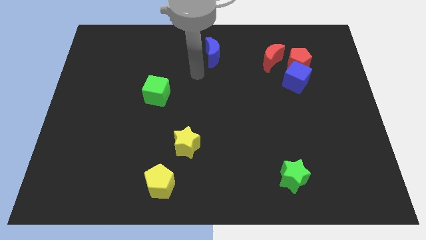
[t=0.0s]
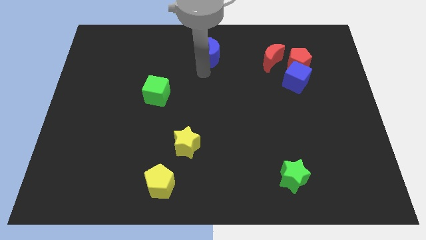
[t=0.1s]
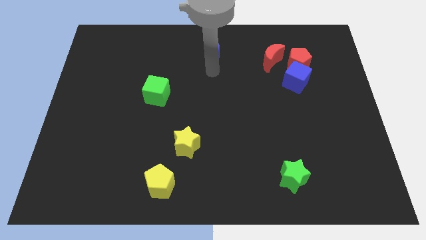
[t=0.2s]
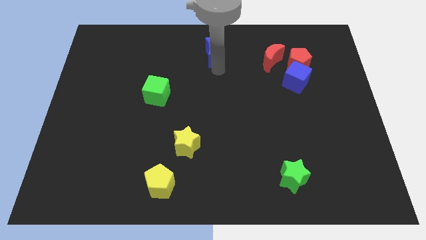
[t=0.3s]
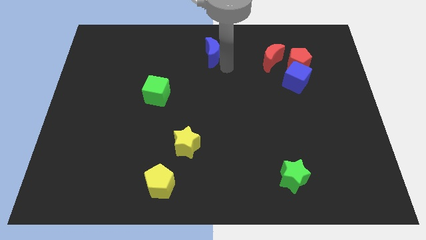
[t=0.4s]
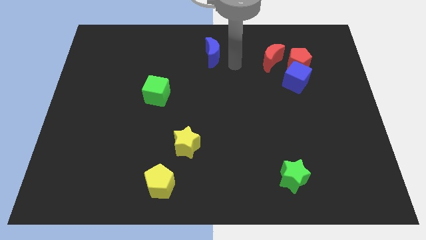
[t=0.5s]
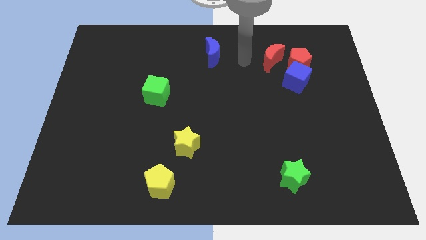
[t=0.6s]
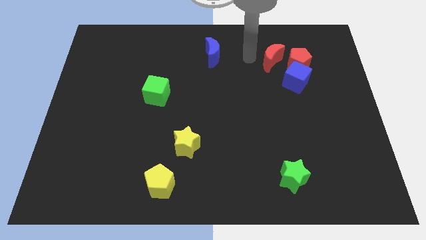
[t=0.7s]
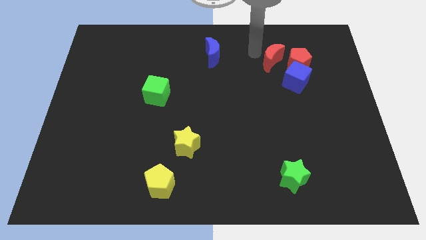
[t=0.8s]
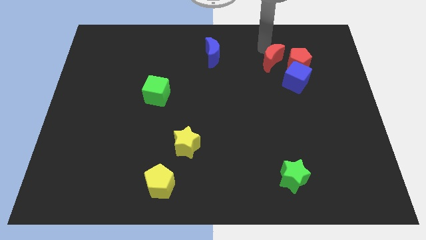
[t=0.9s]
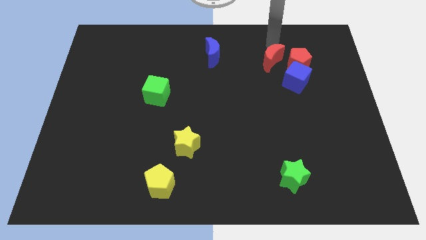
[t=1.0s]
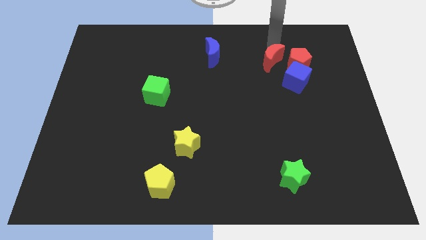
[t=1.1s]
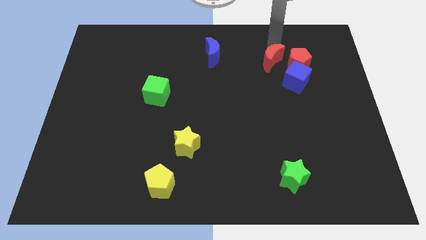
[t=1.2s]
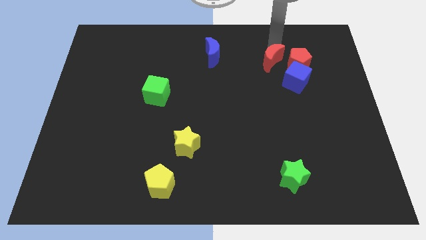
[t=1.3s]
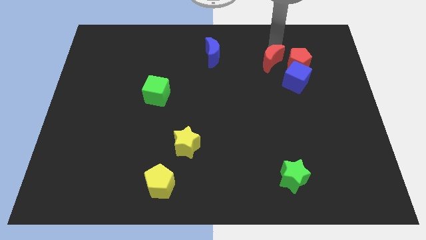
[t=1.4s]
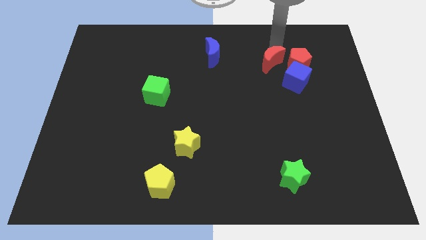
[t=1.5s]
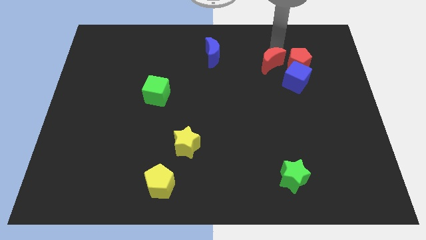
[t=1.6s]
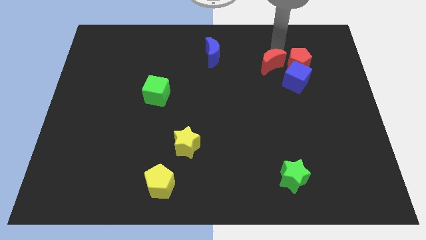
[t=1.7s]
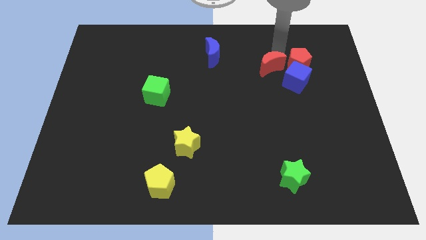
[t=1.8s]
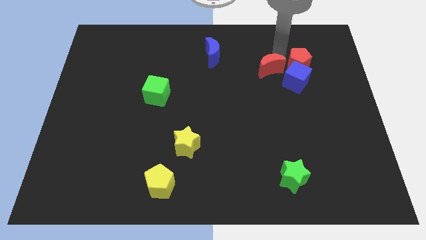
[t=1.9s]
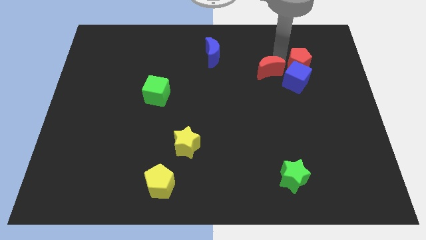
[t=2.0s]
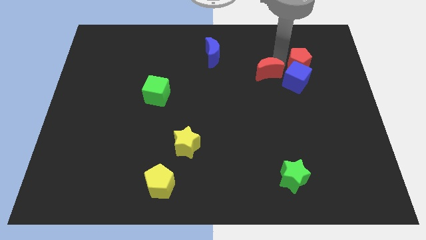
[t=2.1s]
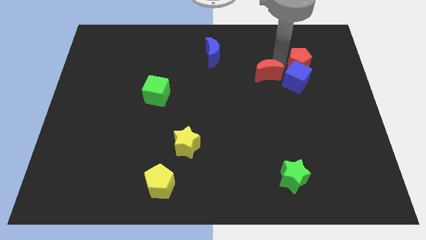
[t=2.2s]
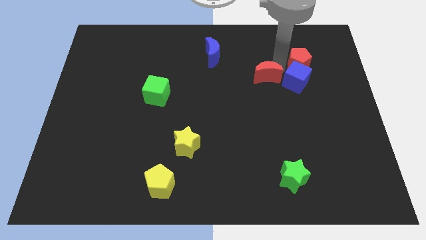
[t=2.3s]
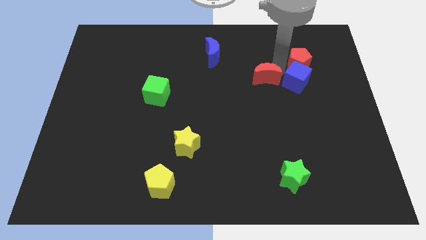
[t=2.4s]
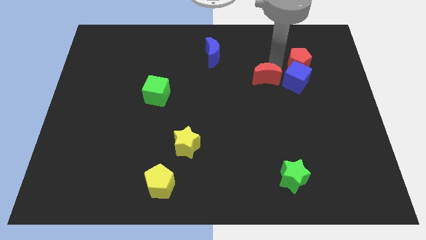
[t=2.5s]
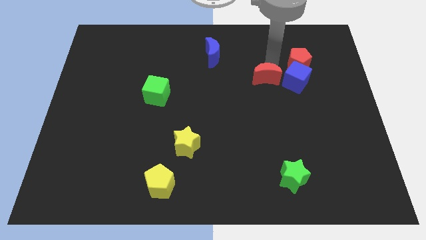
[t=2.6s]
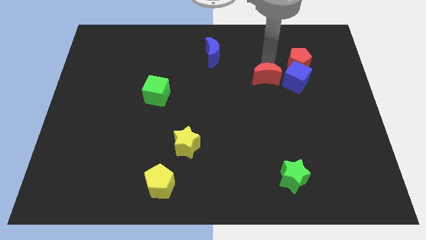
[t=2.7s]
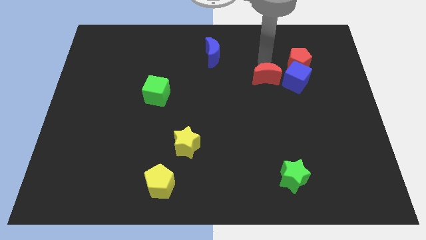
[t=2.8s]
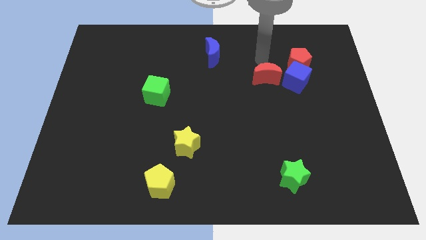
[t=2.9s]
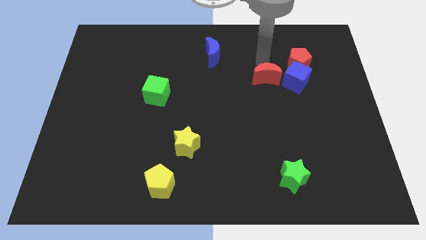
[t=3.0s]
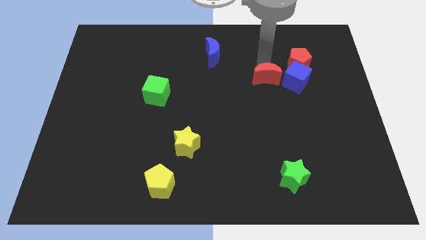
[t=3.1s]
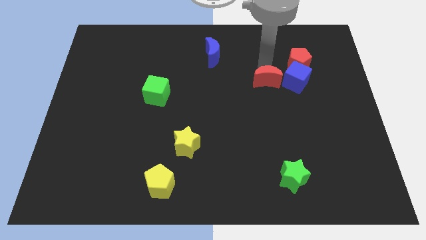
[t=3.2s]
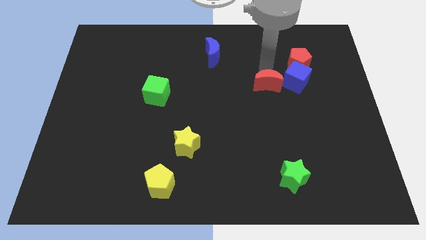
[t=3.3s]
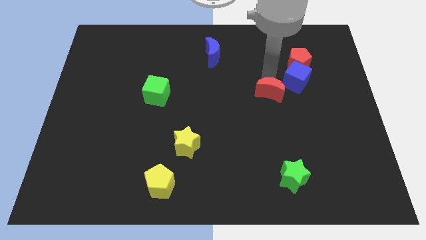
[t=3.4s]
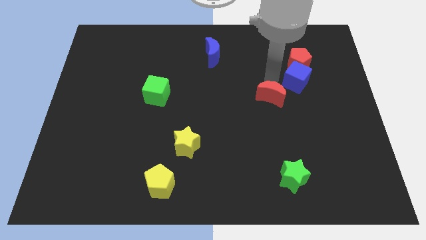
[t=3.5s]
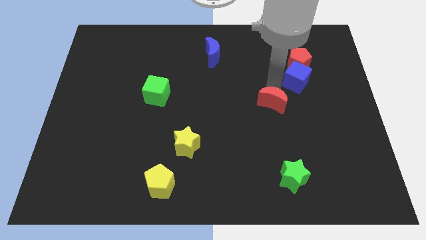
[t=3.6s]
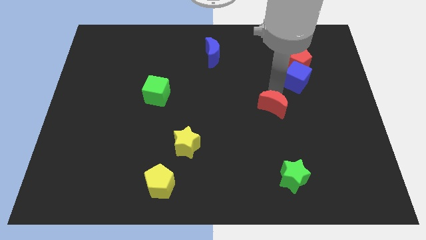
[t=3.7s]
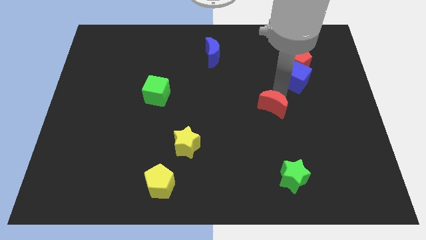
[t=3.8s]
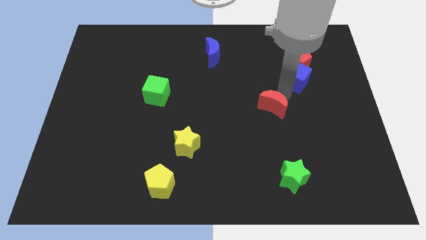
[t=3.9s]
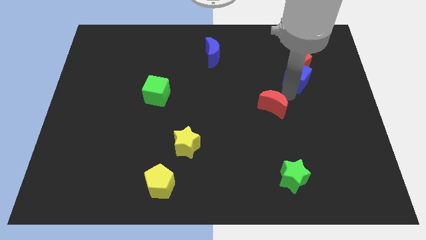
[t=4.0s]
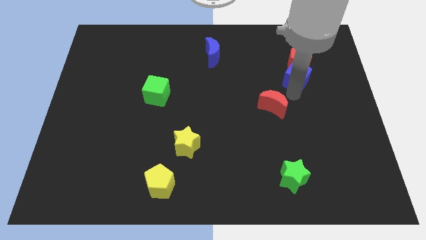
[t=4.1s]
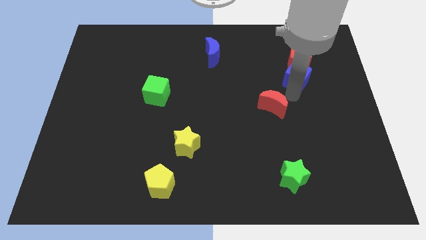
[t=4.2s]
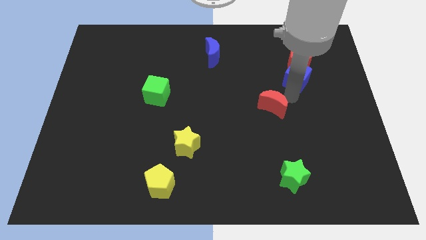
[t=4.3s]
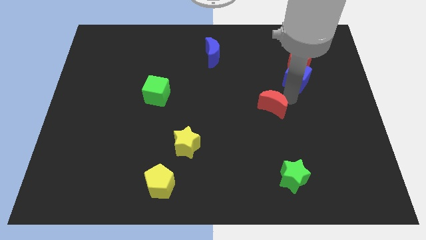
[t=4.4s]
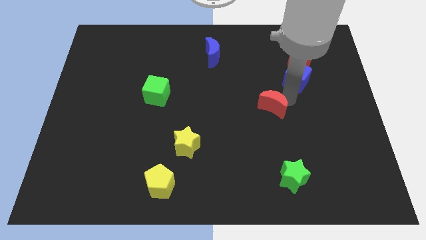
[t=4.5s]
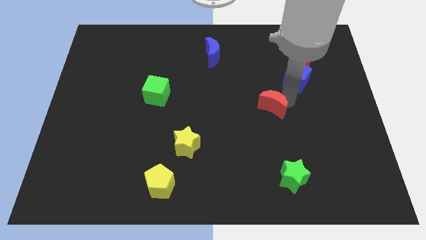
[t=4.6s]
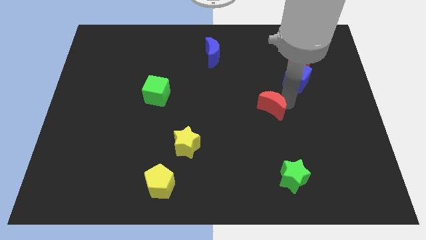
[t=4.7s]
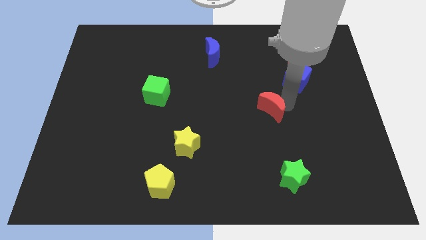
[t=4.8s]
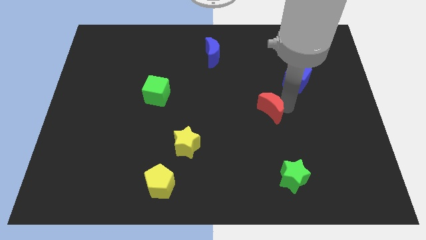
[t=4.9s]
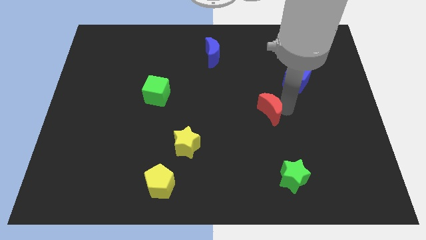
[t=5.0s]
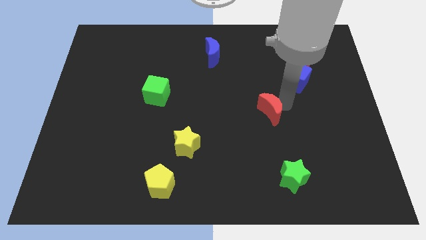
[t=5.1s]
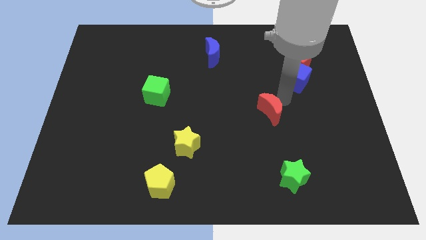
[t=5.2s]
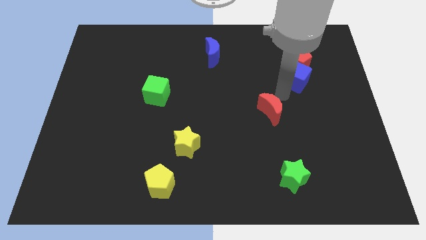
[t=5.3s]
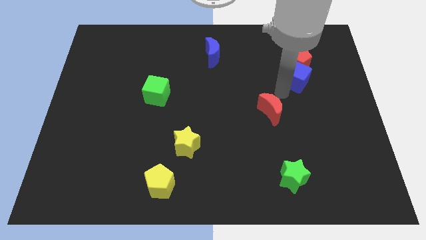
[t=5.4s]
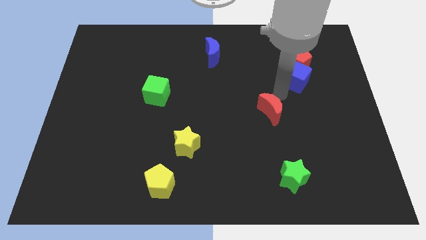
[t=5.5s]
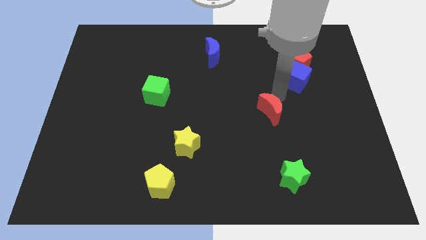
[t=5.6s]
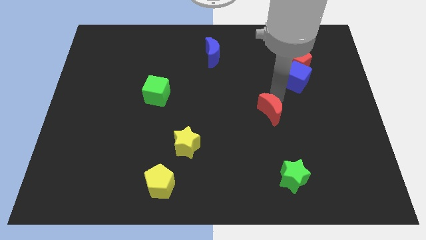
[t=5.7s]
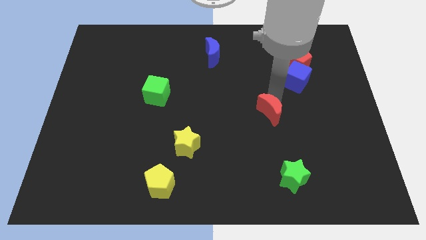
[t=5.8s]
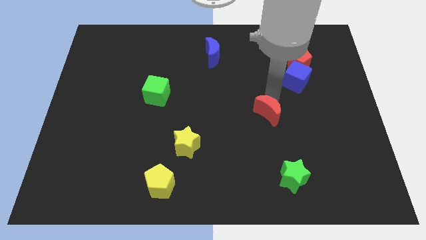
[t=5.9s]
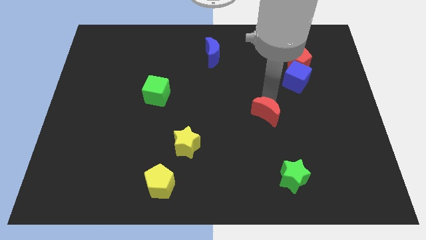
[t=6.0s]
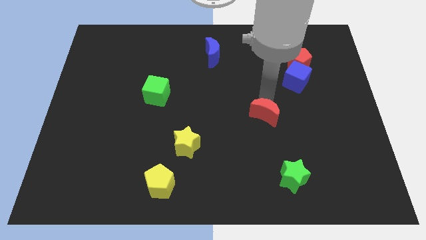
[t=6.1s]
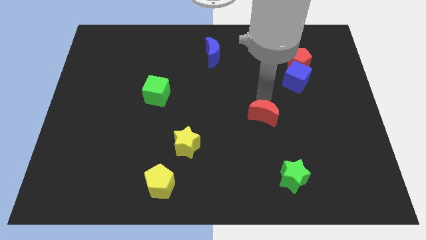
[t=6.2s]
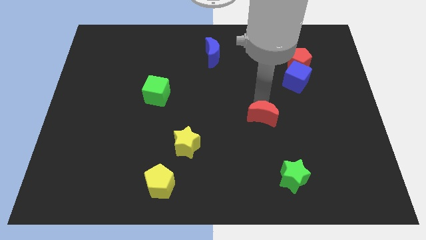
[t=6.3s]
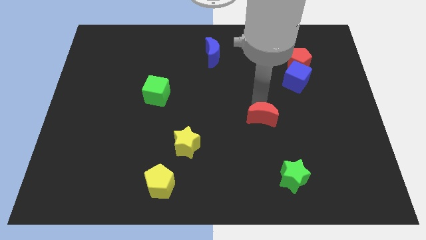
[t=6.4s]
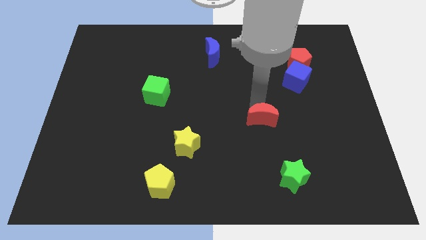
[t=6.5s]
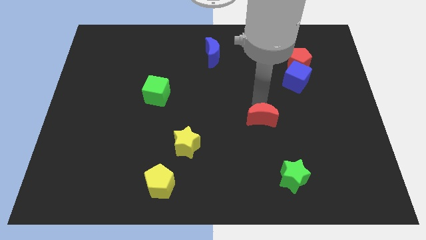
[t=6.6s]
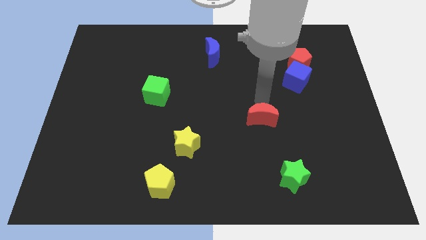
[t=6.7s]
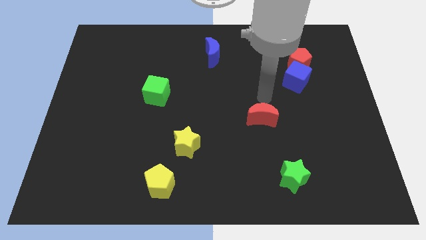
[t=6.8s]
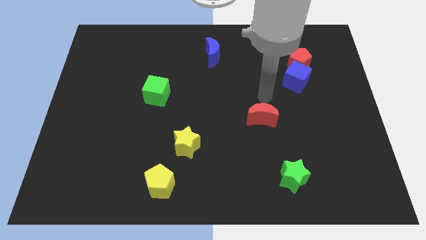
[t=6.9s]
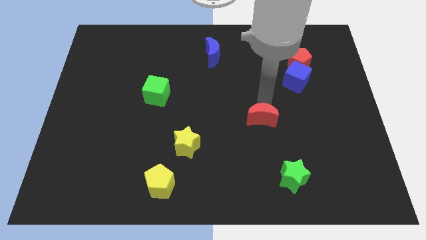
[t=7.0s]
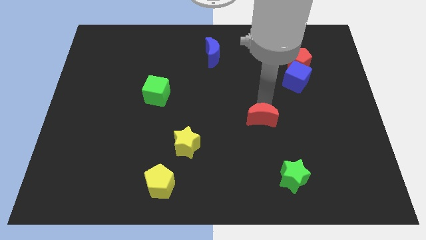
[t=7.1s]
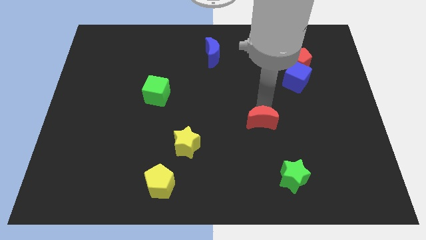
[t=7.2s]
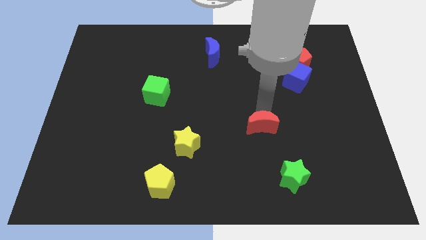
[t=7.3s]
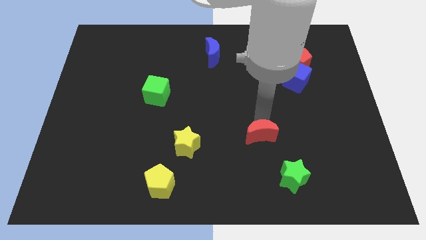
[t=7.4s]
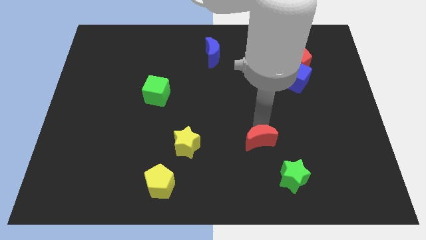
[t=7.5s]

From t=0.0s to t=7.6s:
put the red moon diagonally up and to the left of the green star

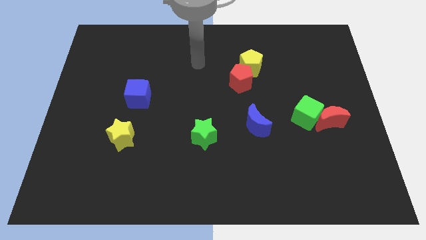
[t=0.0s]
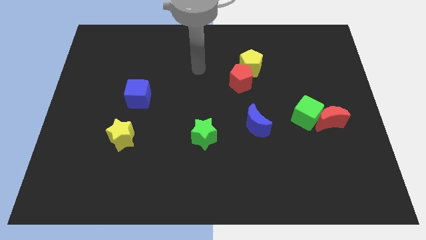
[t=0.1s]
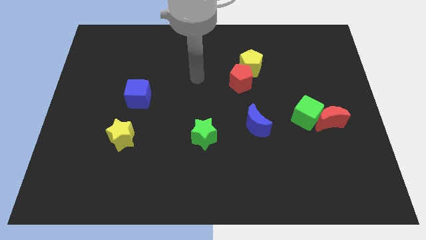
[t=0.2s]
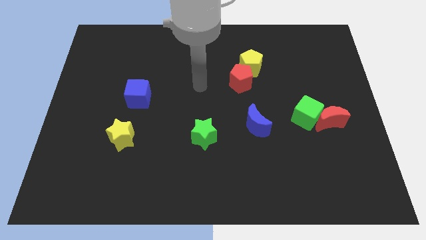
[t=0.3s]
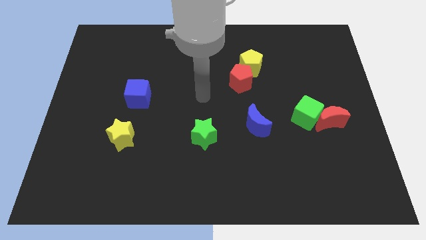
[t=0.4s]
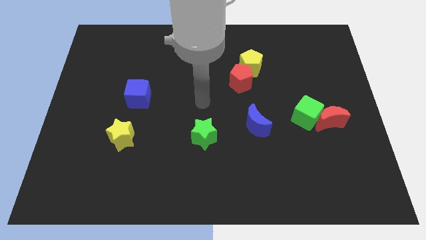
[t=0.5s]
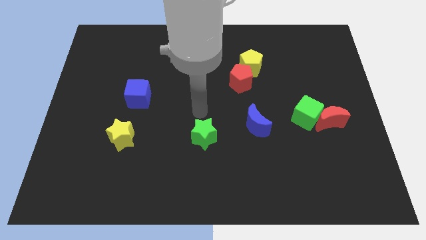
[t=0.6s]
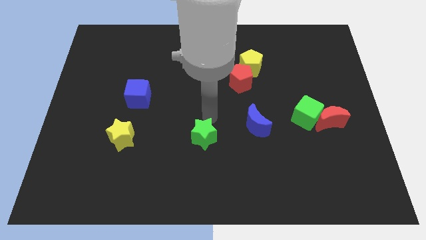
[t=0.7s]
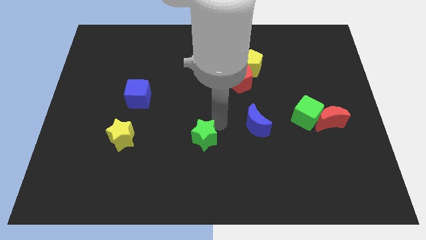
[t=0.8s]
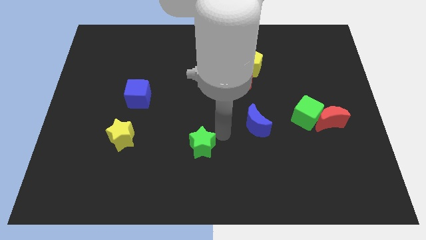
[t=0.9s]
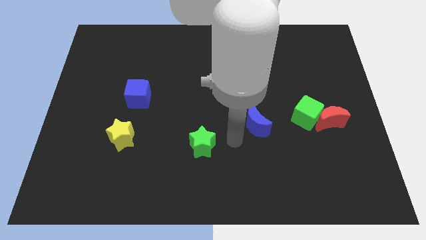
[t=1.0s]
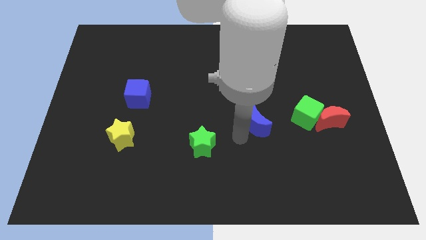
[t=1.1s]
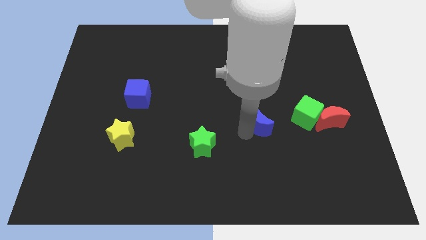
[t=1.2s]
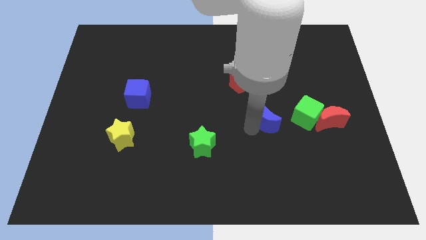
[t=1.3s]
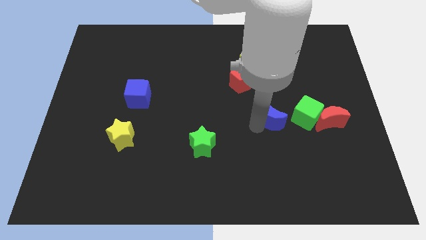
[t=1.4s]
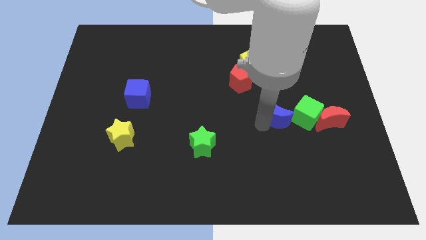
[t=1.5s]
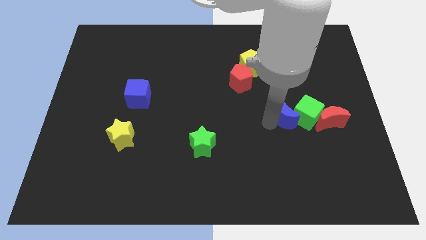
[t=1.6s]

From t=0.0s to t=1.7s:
push the blue moon to the top left of the green cube
